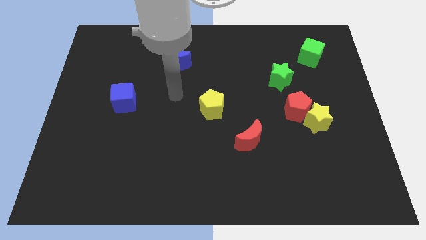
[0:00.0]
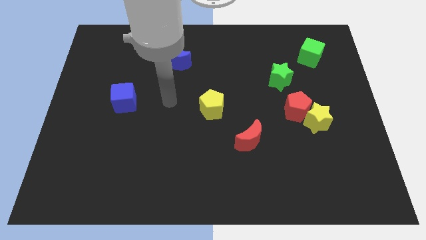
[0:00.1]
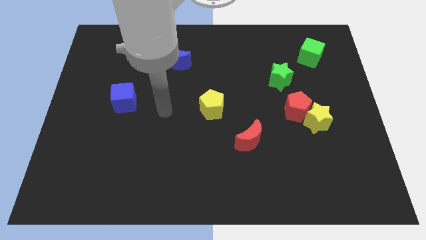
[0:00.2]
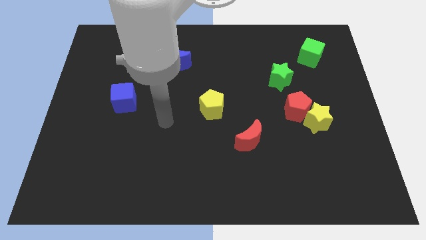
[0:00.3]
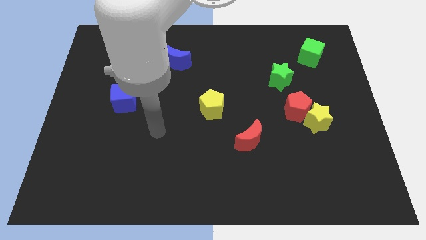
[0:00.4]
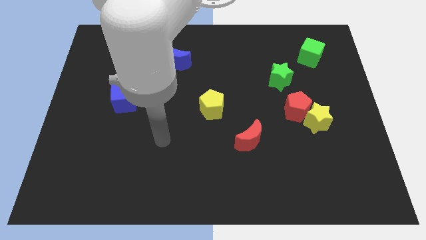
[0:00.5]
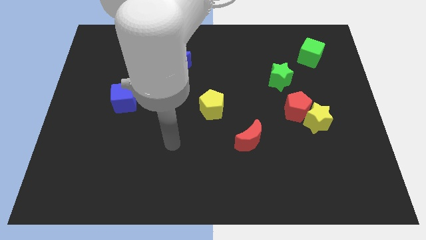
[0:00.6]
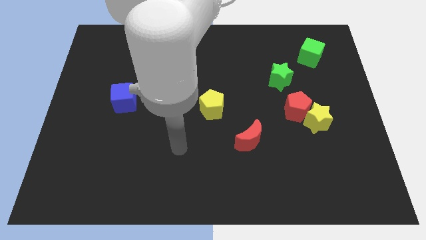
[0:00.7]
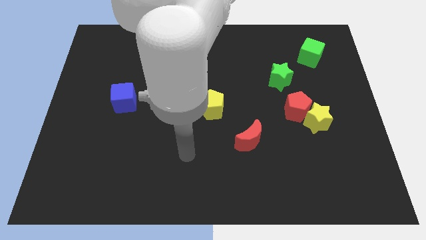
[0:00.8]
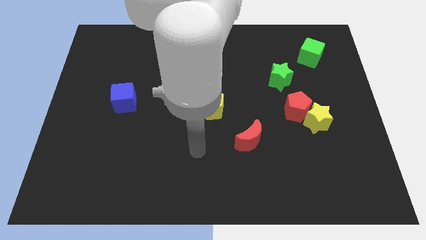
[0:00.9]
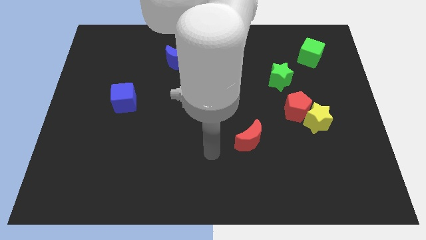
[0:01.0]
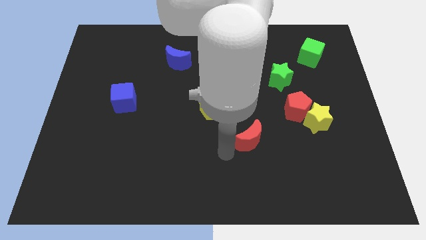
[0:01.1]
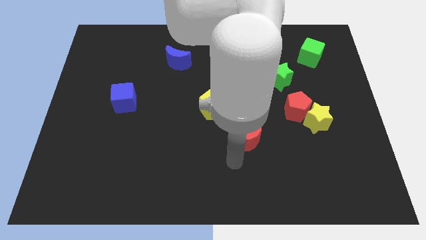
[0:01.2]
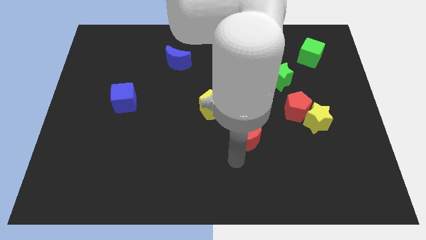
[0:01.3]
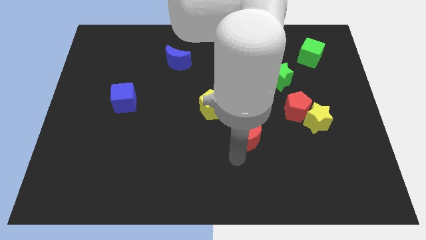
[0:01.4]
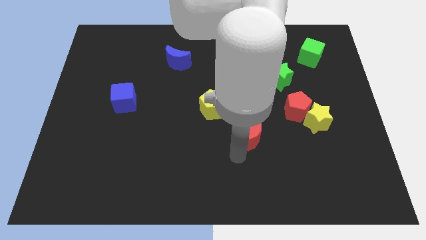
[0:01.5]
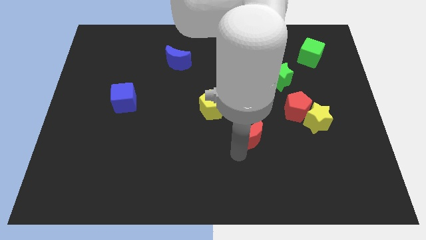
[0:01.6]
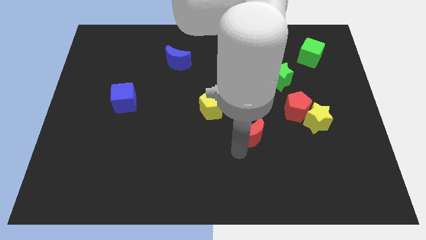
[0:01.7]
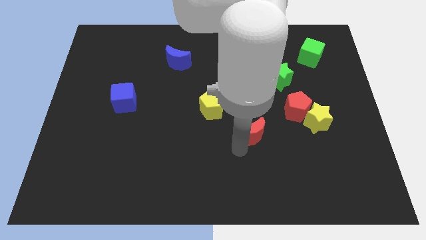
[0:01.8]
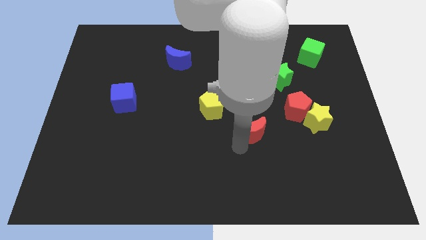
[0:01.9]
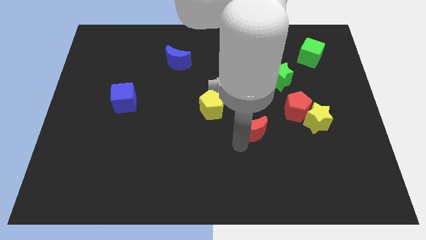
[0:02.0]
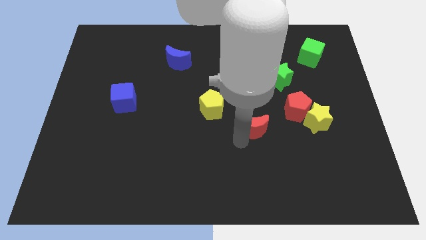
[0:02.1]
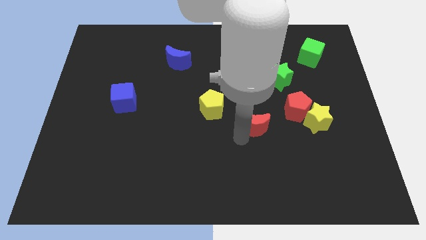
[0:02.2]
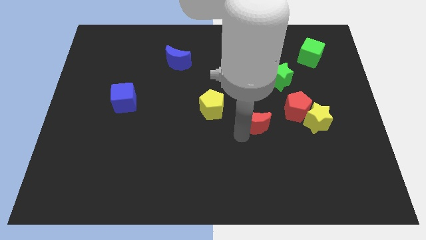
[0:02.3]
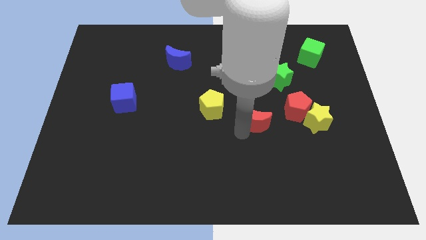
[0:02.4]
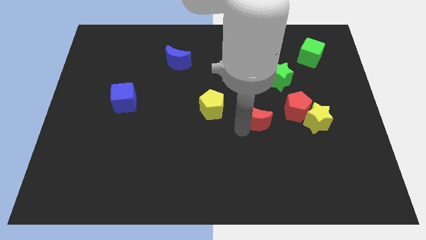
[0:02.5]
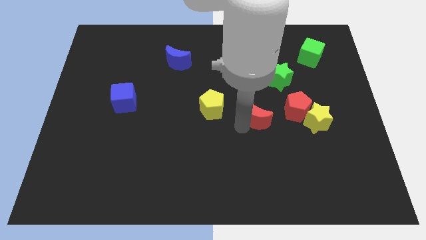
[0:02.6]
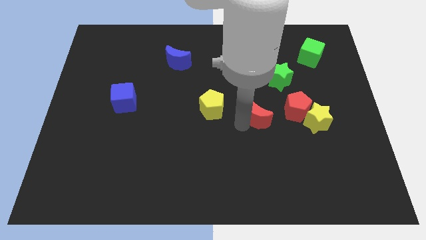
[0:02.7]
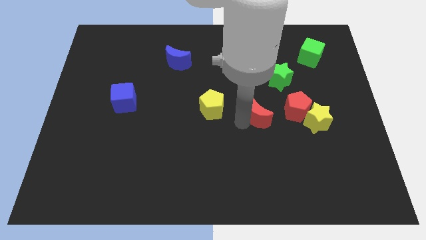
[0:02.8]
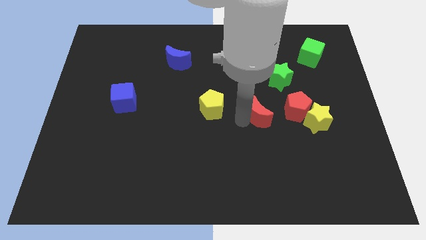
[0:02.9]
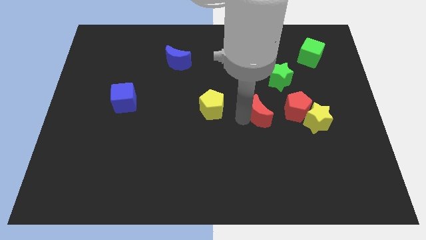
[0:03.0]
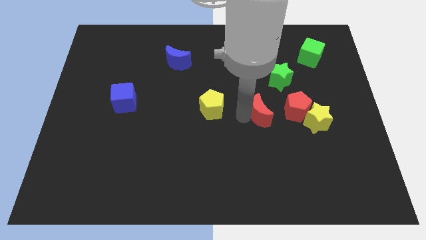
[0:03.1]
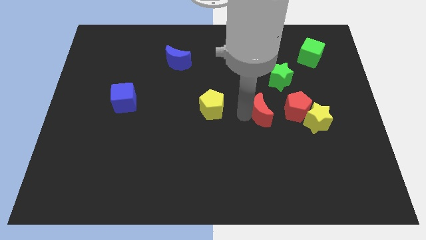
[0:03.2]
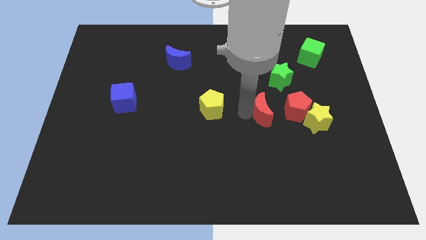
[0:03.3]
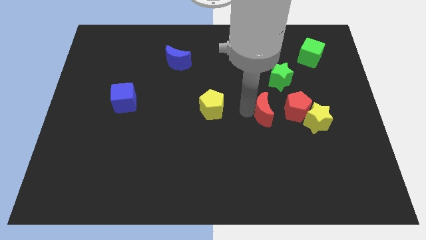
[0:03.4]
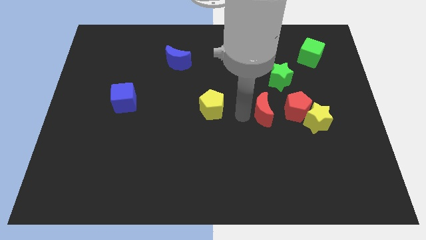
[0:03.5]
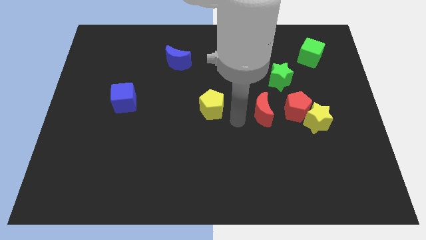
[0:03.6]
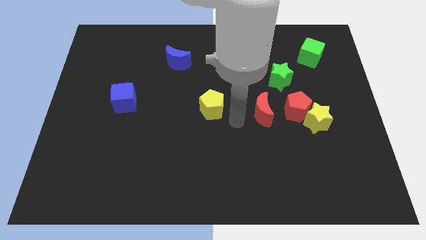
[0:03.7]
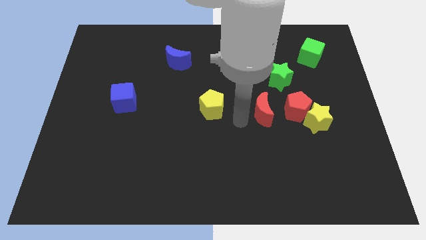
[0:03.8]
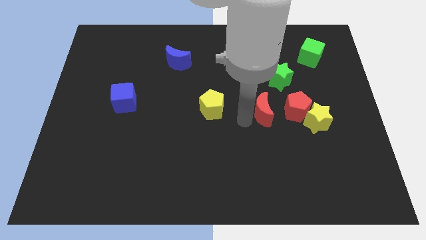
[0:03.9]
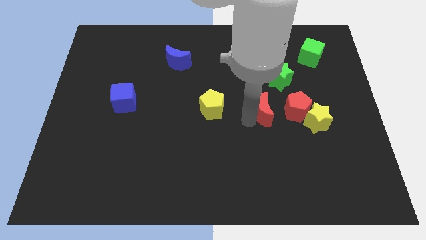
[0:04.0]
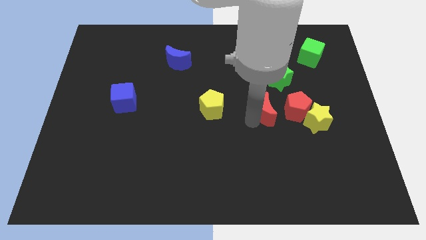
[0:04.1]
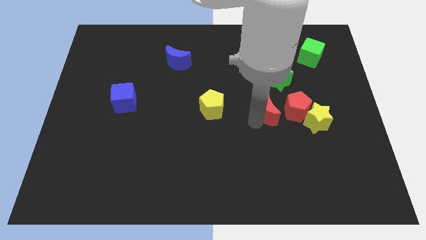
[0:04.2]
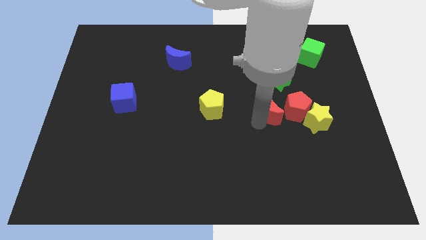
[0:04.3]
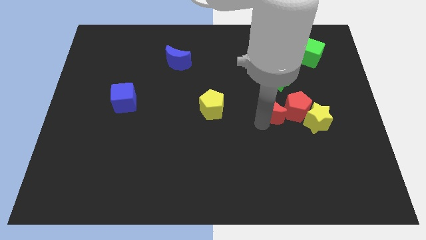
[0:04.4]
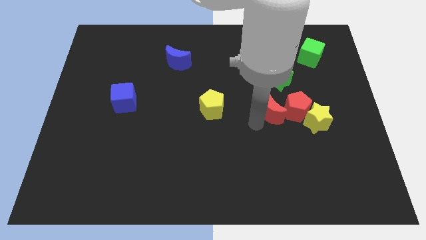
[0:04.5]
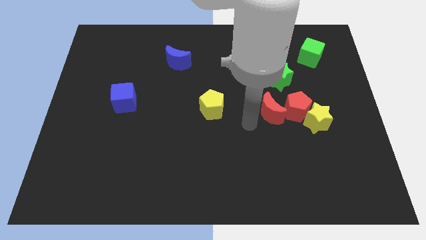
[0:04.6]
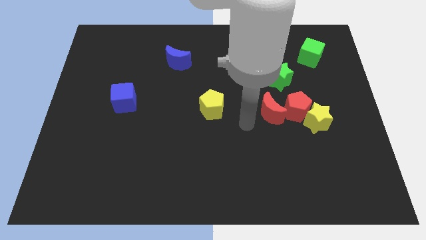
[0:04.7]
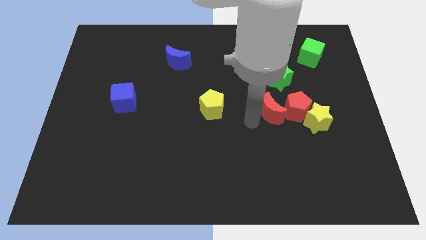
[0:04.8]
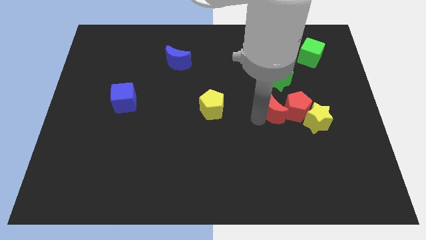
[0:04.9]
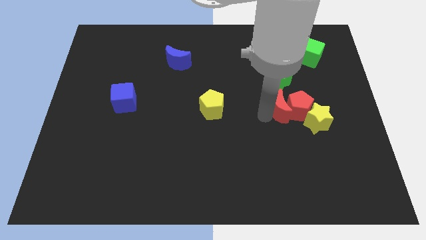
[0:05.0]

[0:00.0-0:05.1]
put the red moon diagonally up and to the left of the yellow star

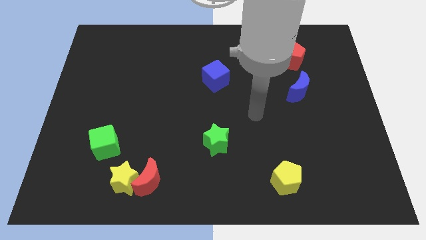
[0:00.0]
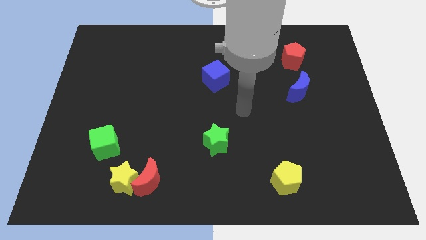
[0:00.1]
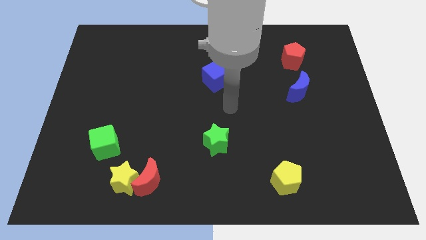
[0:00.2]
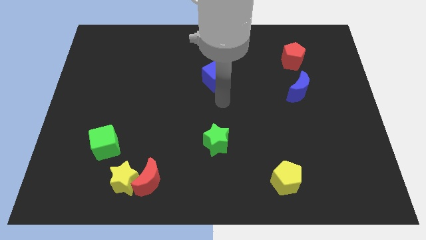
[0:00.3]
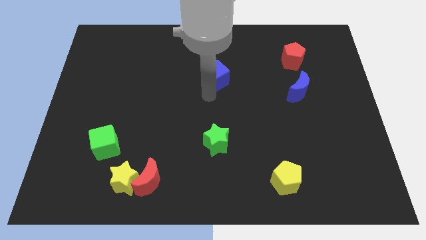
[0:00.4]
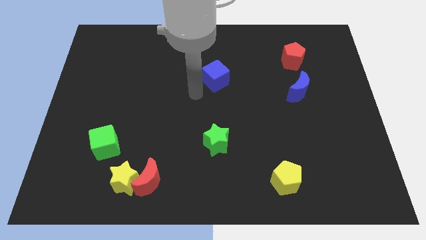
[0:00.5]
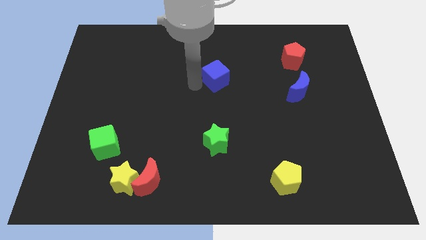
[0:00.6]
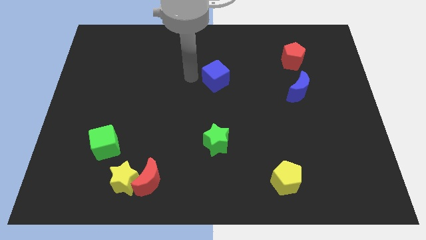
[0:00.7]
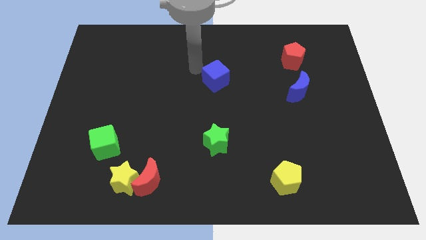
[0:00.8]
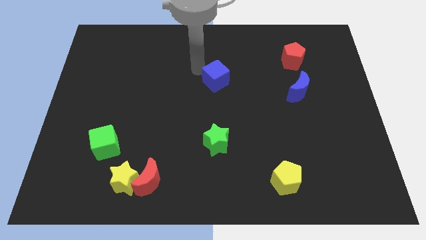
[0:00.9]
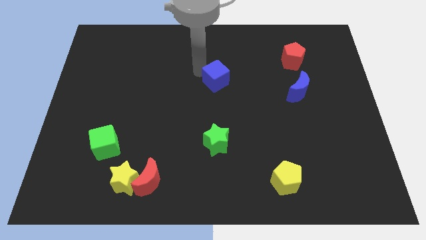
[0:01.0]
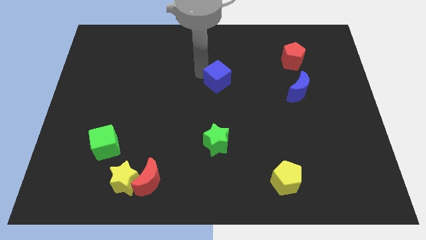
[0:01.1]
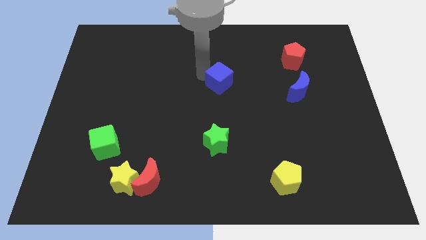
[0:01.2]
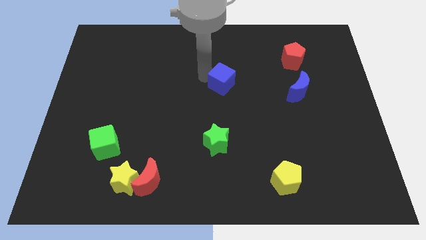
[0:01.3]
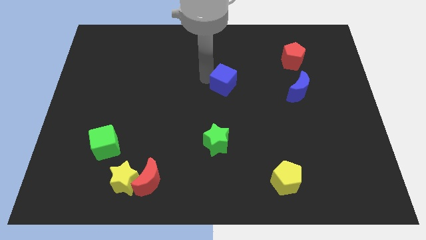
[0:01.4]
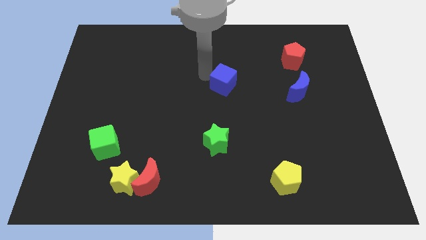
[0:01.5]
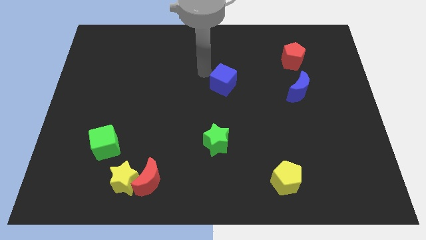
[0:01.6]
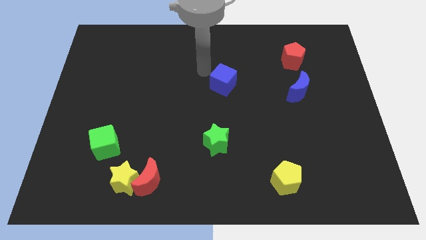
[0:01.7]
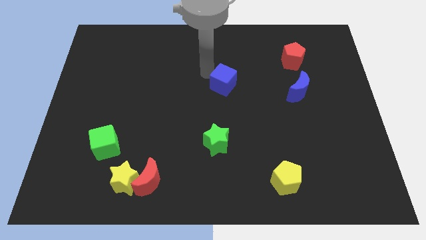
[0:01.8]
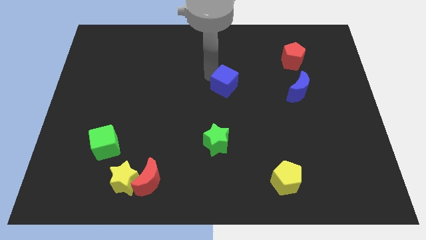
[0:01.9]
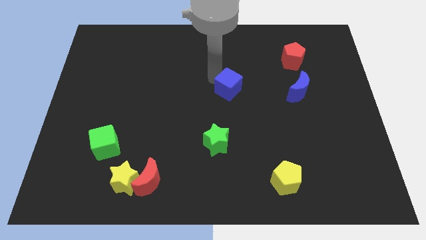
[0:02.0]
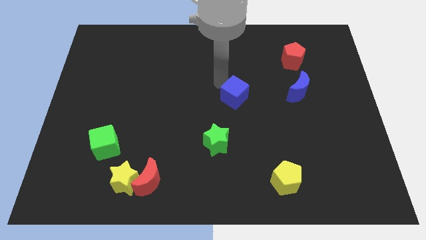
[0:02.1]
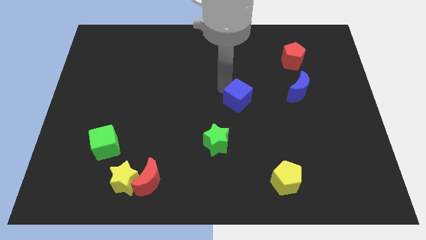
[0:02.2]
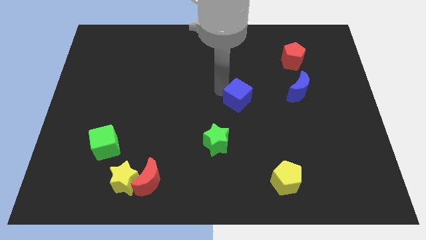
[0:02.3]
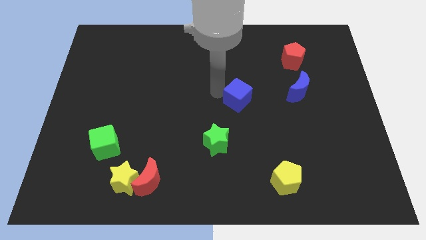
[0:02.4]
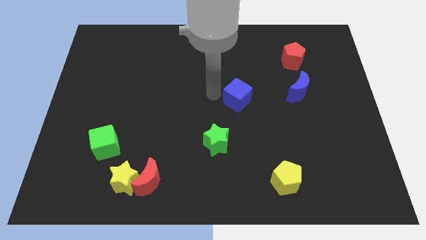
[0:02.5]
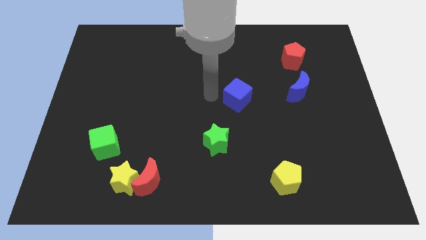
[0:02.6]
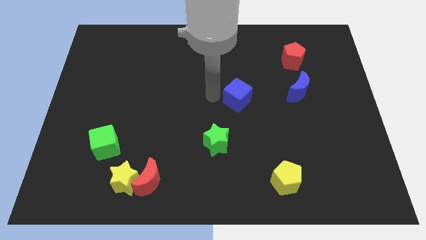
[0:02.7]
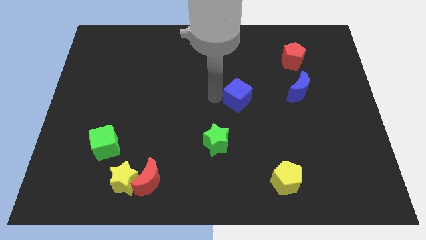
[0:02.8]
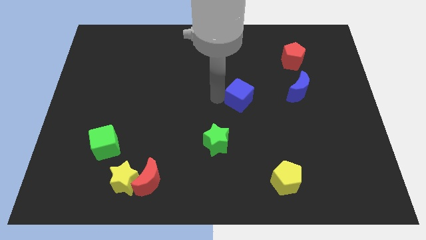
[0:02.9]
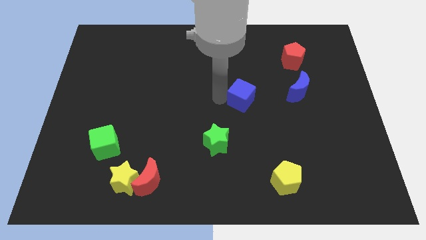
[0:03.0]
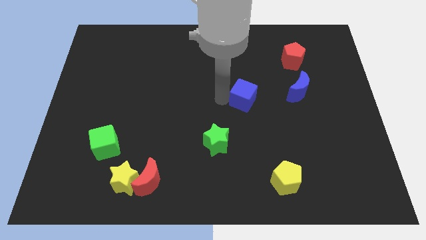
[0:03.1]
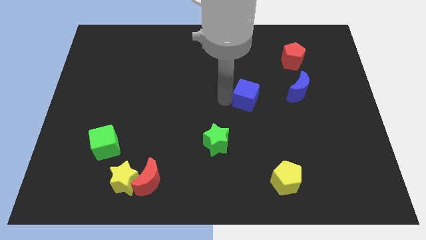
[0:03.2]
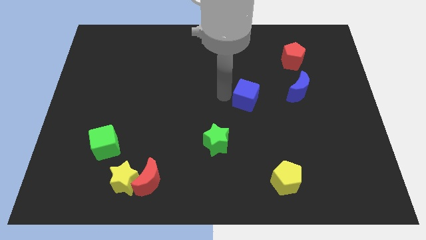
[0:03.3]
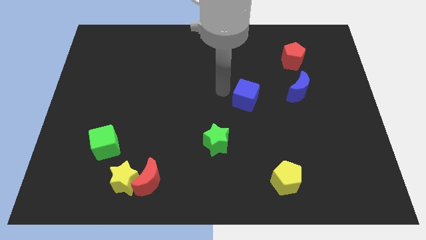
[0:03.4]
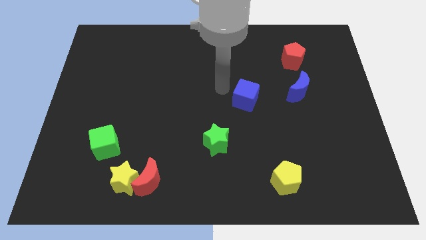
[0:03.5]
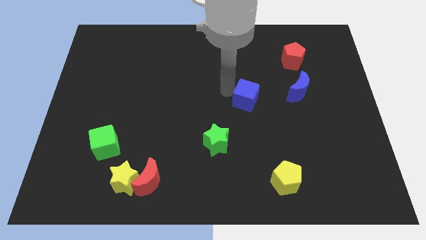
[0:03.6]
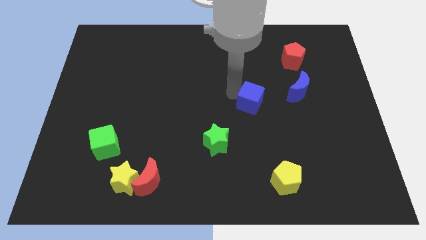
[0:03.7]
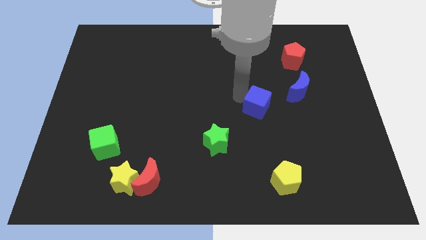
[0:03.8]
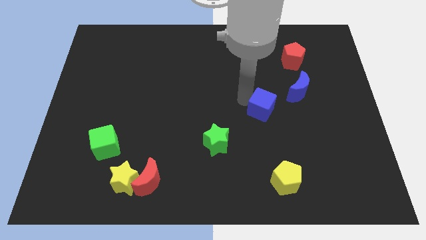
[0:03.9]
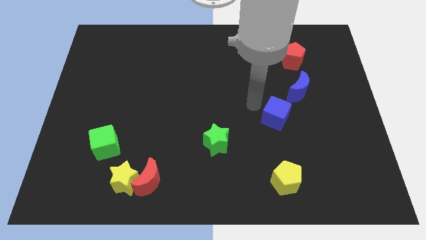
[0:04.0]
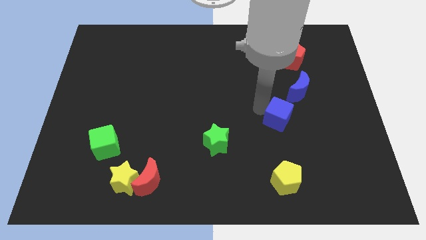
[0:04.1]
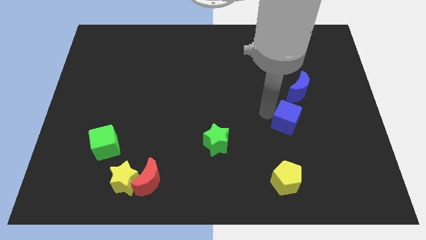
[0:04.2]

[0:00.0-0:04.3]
slide the blue cube to the bottom of the blue moon
